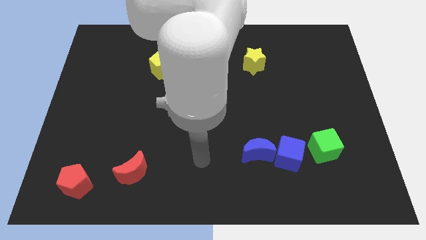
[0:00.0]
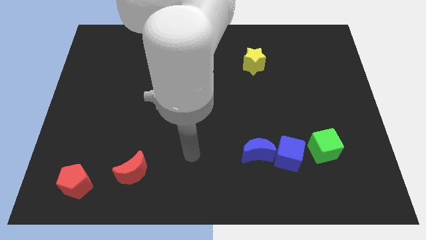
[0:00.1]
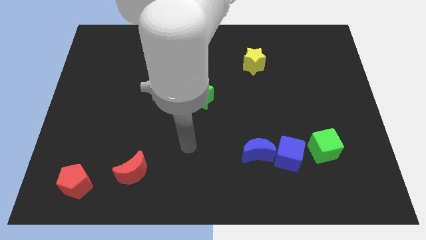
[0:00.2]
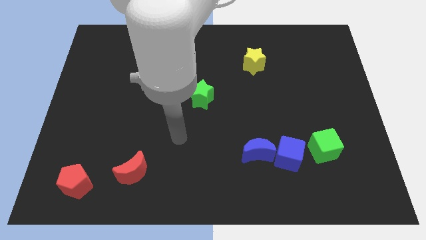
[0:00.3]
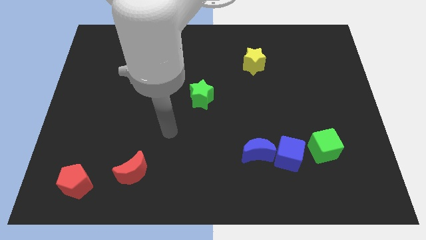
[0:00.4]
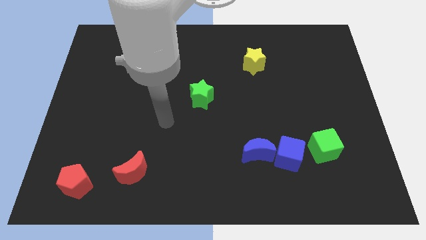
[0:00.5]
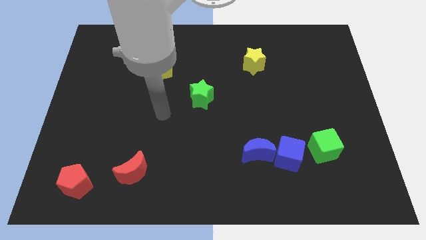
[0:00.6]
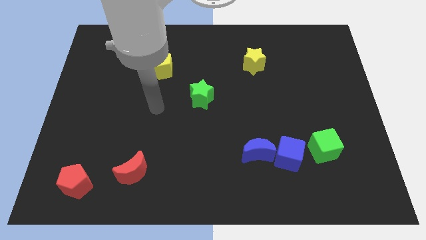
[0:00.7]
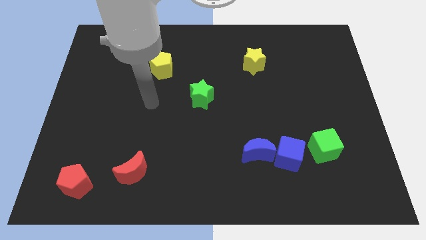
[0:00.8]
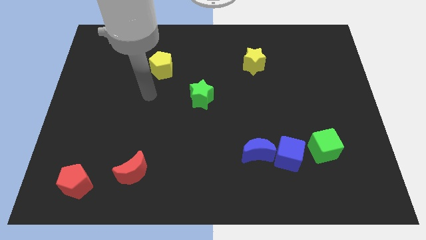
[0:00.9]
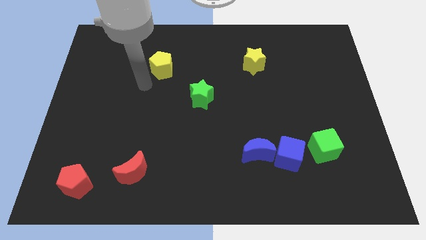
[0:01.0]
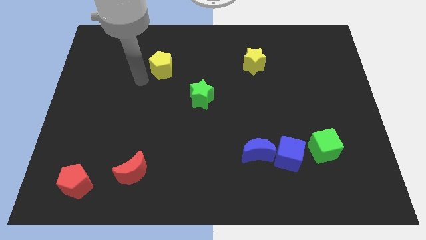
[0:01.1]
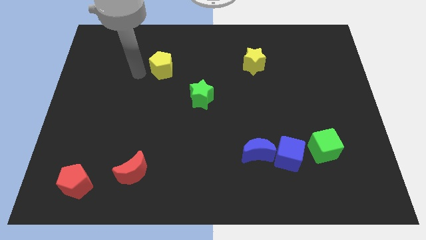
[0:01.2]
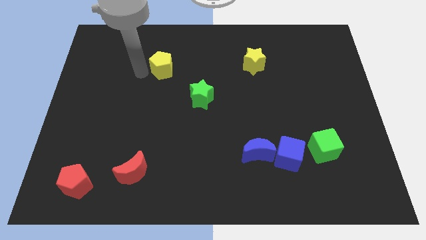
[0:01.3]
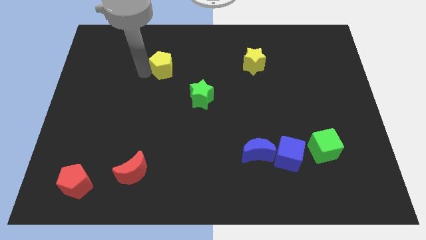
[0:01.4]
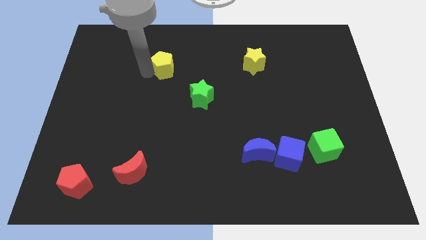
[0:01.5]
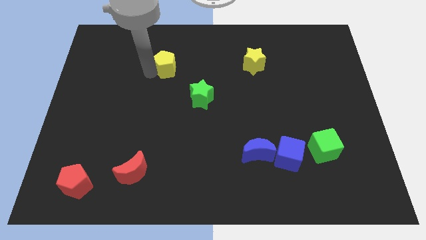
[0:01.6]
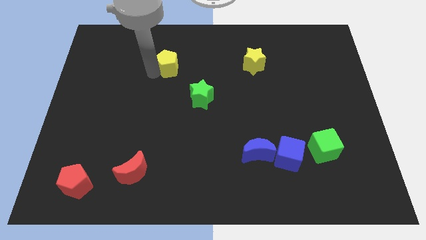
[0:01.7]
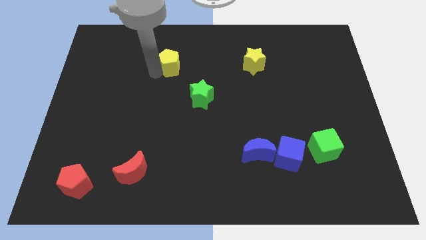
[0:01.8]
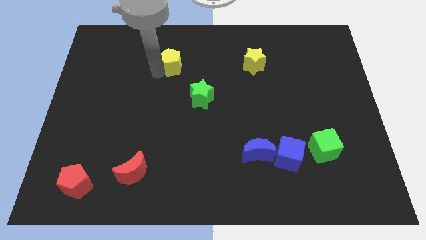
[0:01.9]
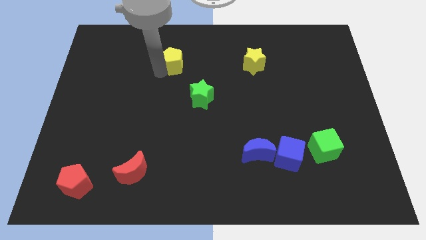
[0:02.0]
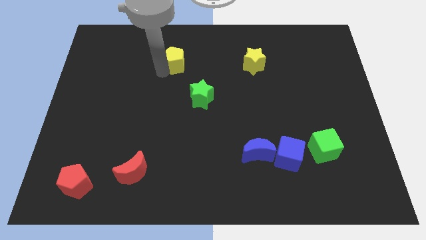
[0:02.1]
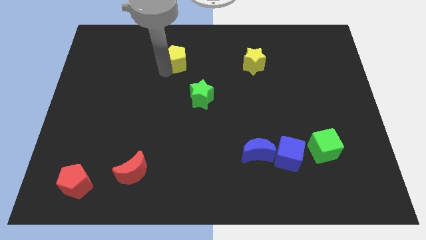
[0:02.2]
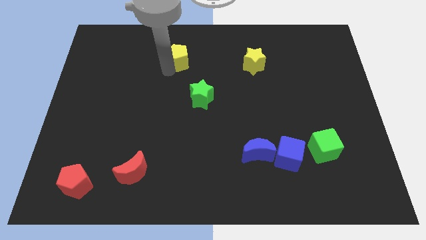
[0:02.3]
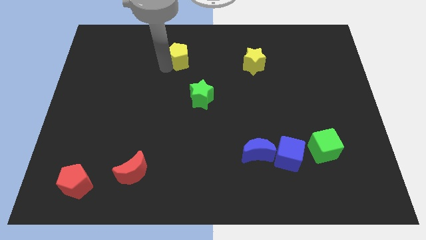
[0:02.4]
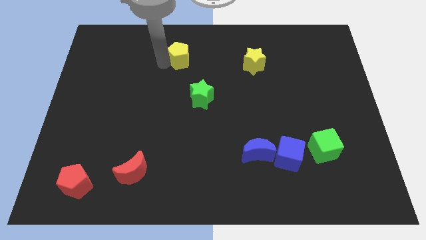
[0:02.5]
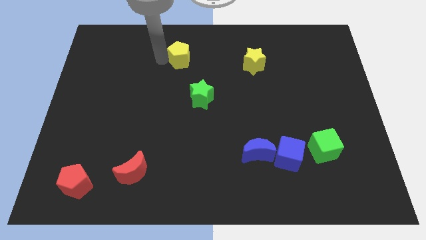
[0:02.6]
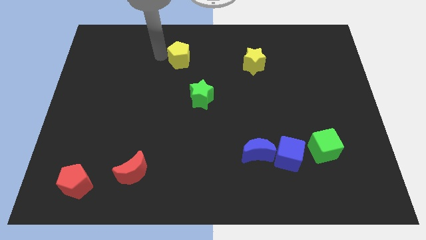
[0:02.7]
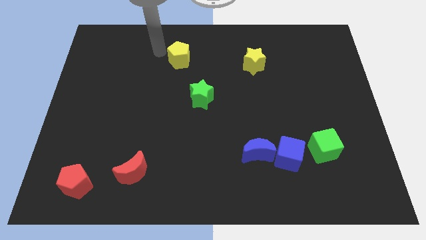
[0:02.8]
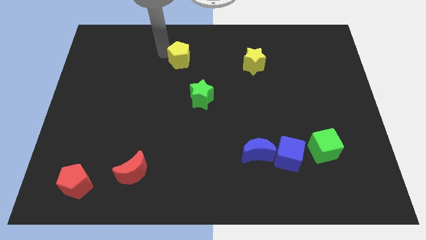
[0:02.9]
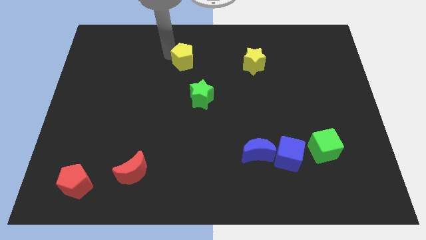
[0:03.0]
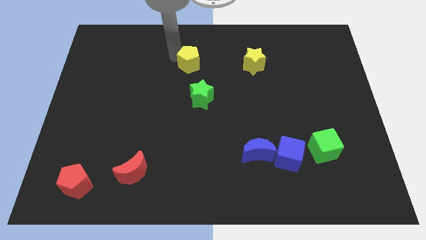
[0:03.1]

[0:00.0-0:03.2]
slide the yellow pentagon right slightly

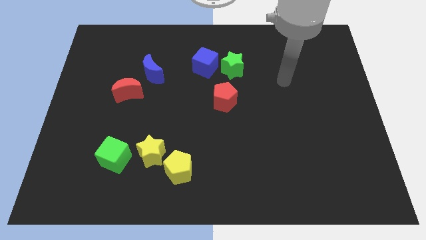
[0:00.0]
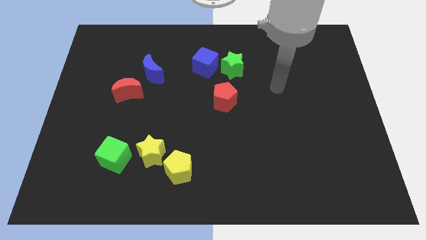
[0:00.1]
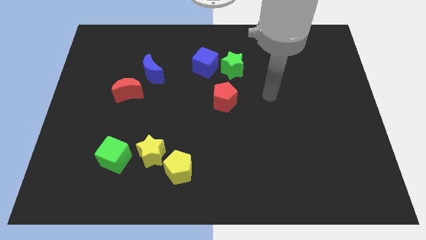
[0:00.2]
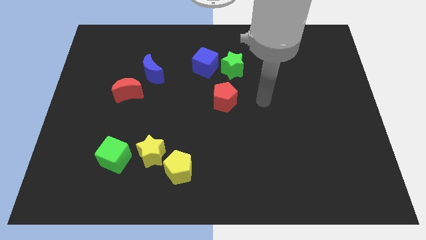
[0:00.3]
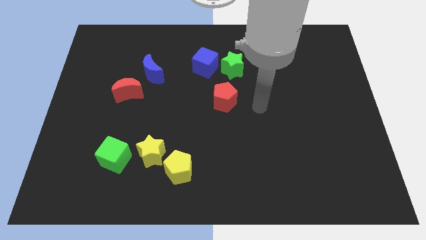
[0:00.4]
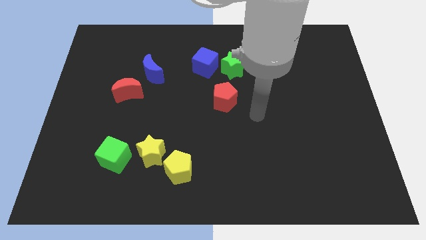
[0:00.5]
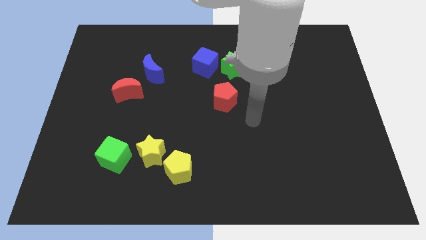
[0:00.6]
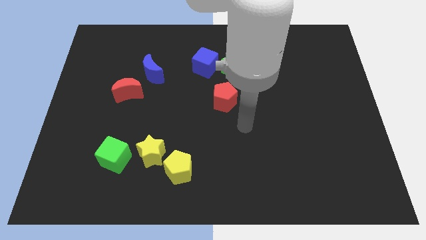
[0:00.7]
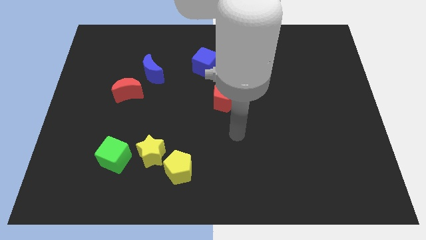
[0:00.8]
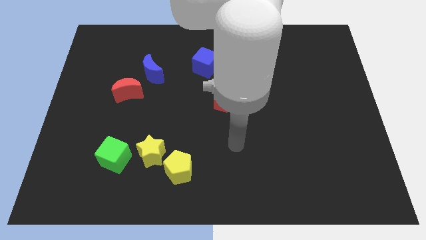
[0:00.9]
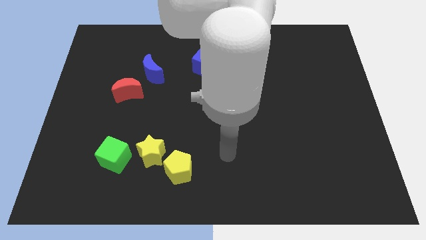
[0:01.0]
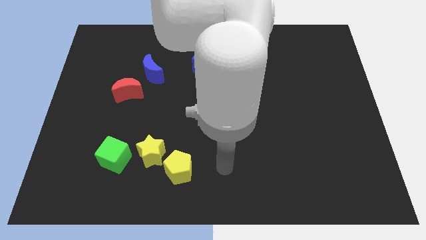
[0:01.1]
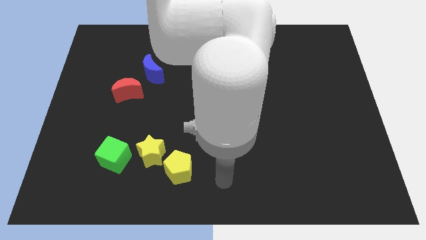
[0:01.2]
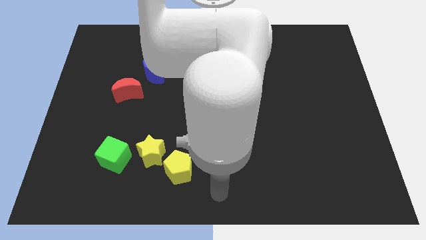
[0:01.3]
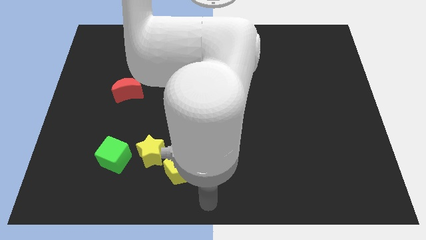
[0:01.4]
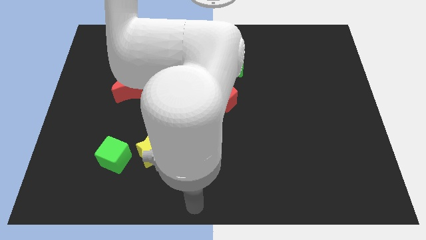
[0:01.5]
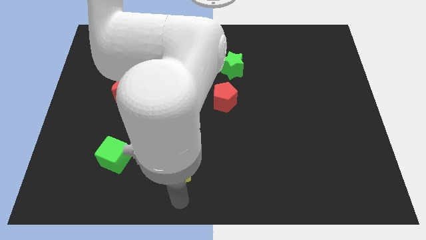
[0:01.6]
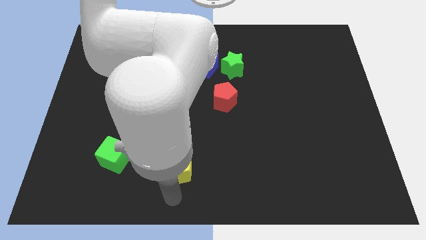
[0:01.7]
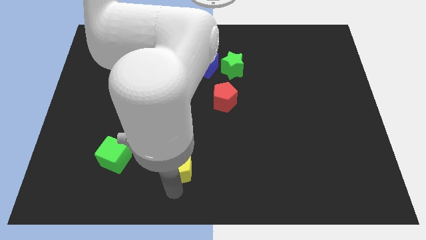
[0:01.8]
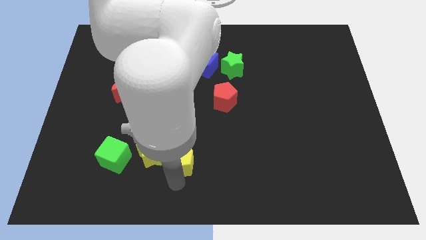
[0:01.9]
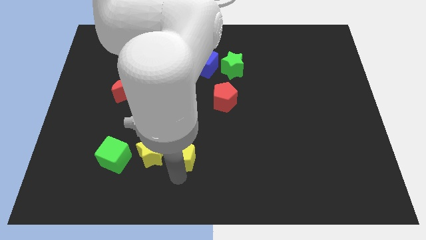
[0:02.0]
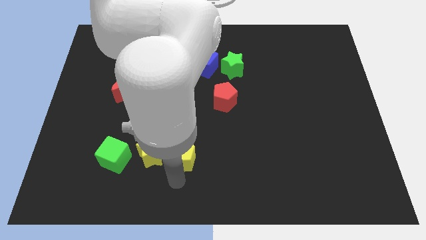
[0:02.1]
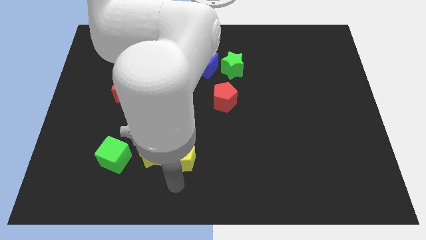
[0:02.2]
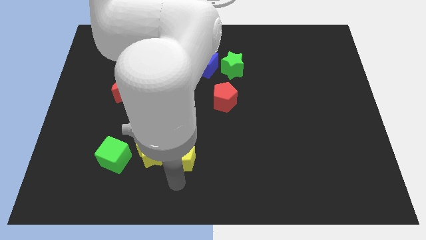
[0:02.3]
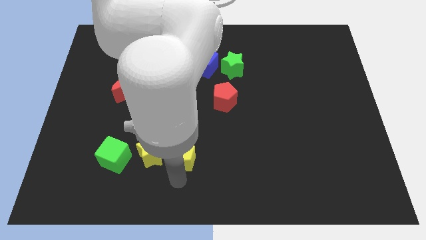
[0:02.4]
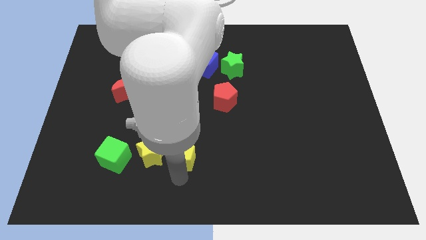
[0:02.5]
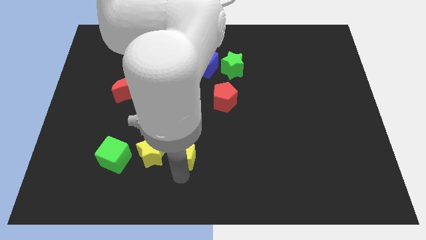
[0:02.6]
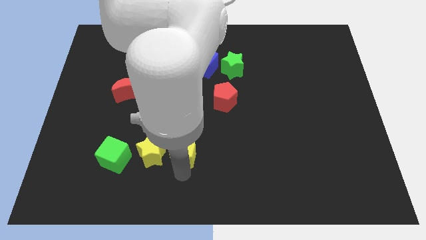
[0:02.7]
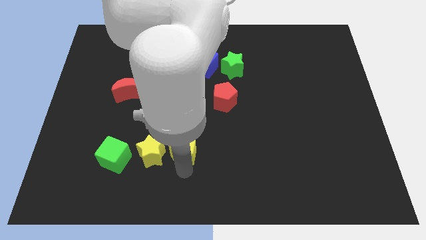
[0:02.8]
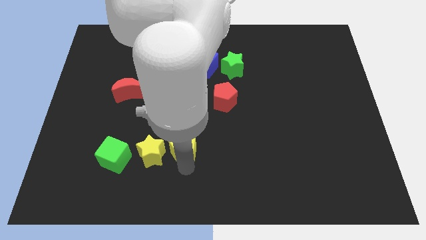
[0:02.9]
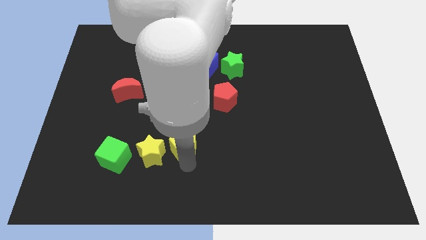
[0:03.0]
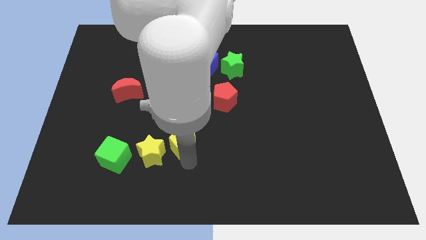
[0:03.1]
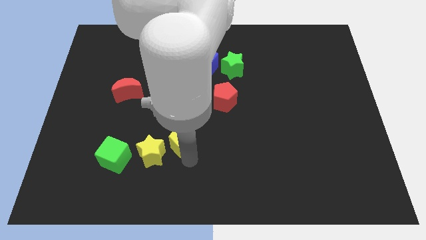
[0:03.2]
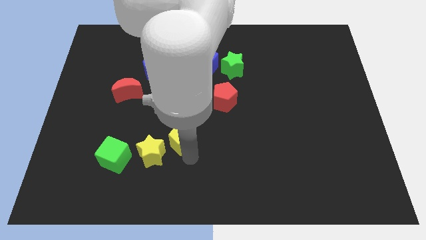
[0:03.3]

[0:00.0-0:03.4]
slightly slide the yellow pentagon up

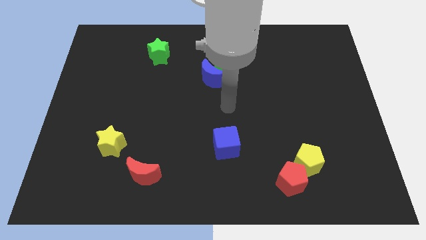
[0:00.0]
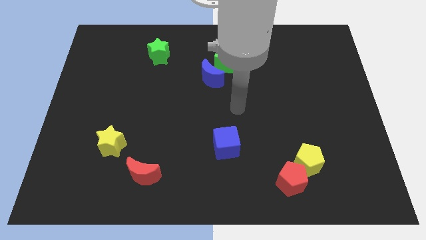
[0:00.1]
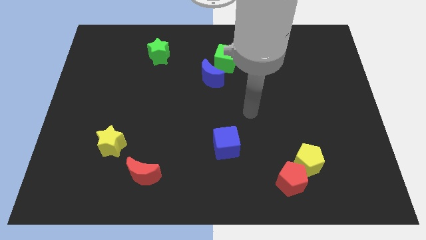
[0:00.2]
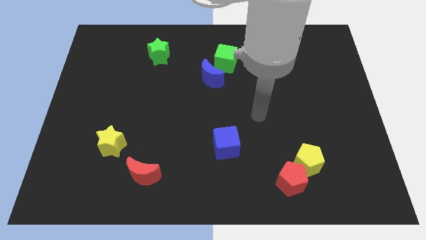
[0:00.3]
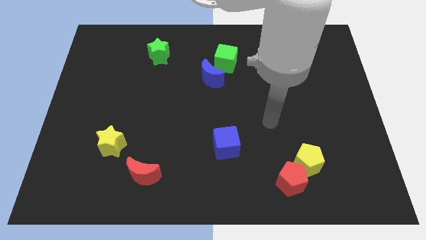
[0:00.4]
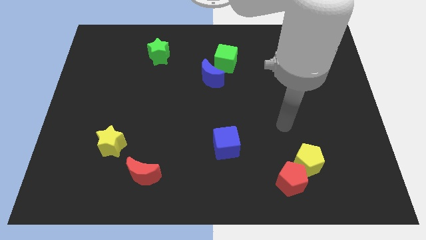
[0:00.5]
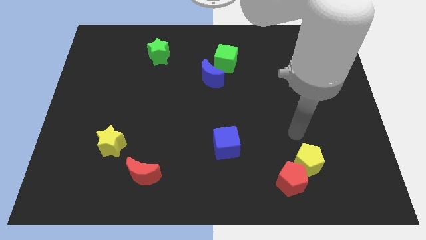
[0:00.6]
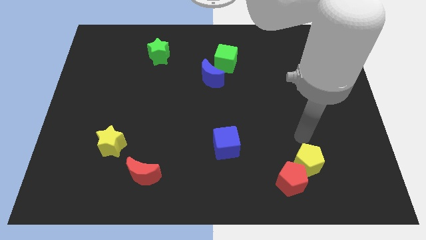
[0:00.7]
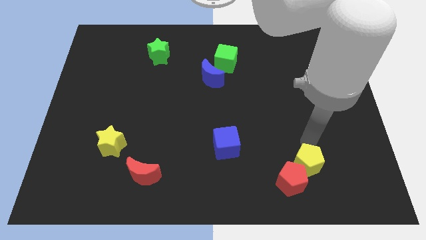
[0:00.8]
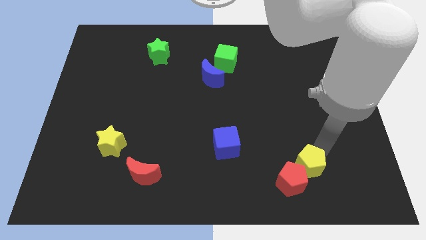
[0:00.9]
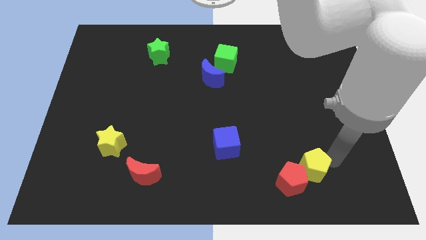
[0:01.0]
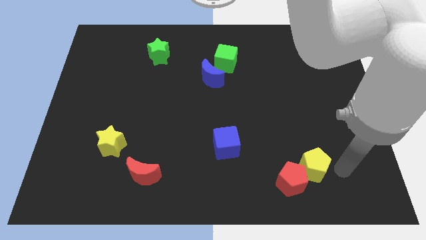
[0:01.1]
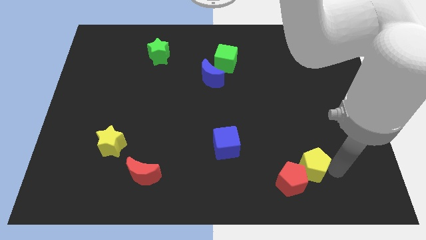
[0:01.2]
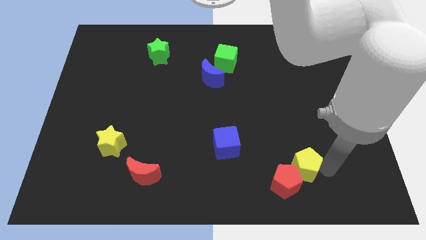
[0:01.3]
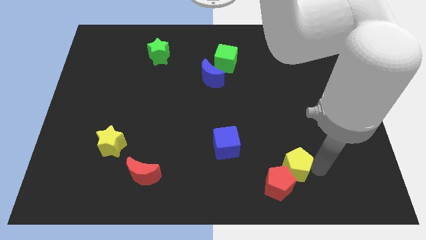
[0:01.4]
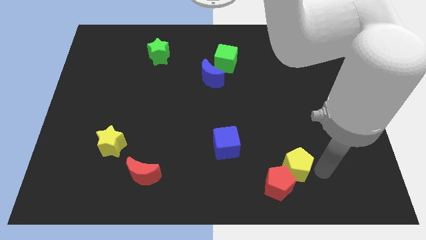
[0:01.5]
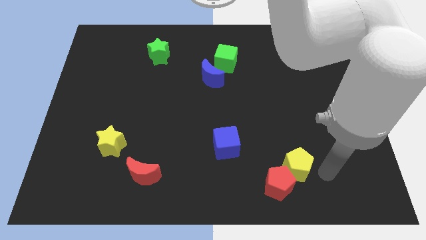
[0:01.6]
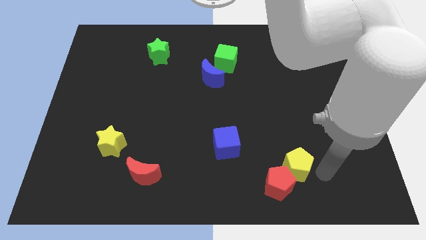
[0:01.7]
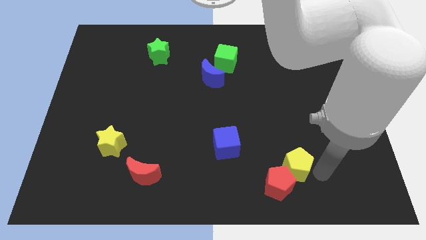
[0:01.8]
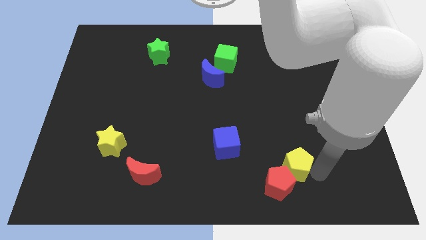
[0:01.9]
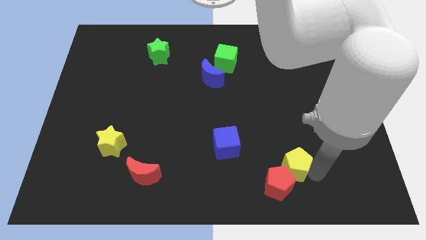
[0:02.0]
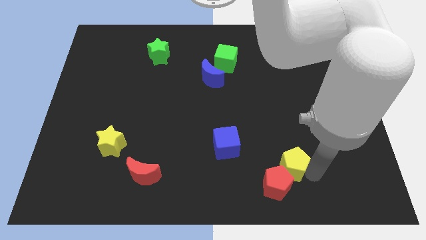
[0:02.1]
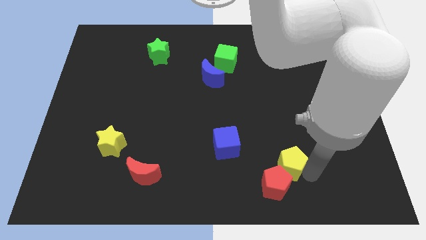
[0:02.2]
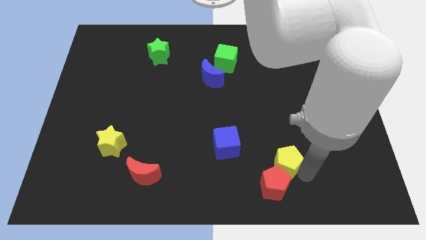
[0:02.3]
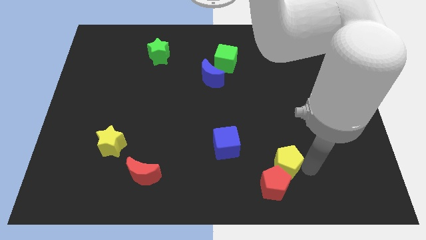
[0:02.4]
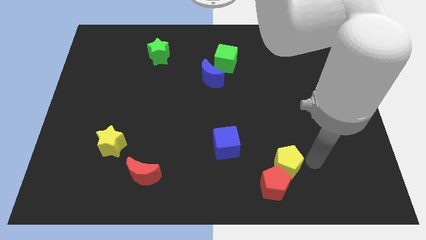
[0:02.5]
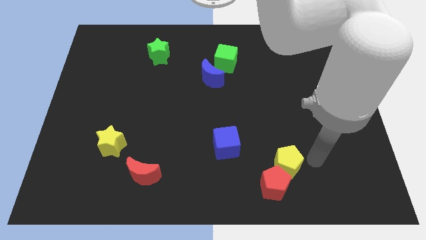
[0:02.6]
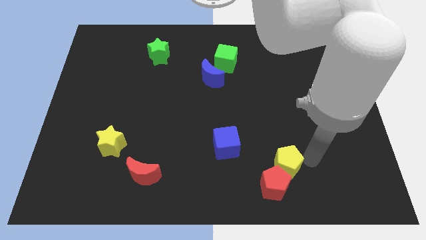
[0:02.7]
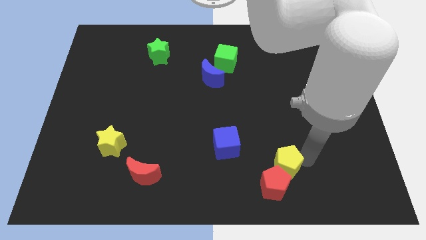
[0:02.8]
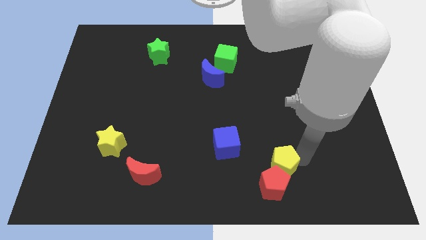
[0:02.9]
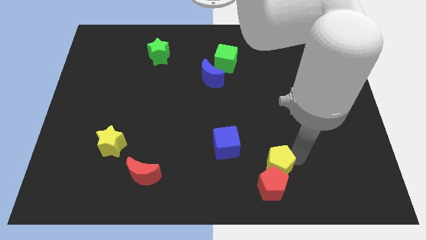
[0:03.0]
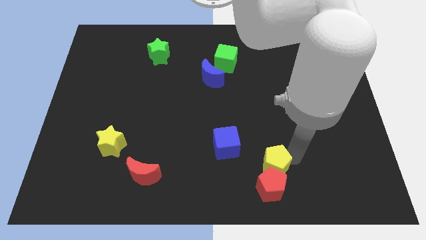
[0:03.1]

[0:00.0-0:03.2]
slide the yellow pentagon a little to the left
